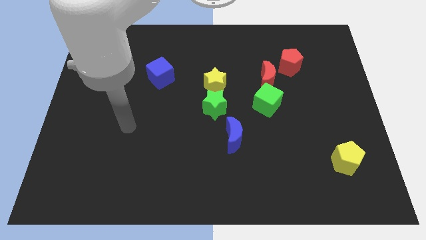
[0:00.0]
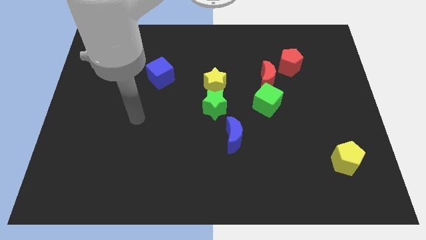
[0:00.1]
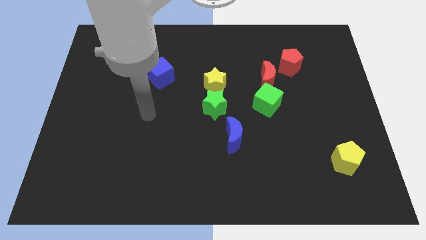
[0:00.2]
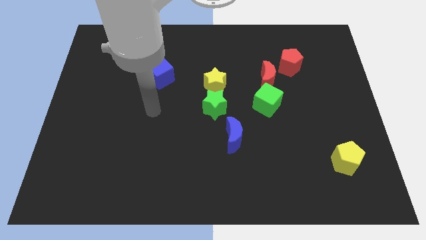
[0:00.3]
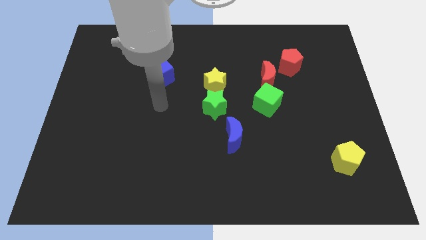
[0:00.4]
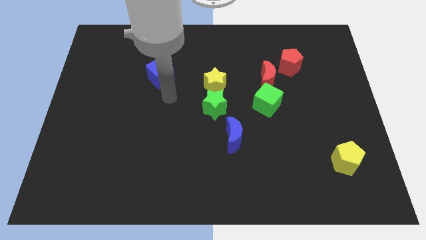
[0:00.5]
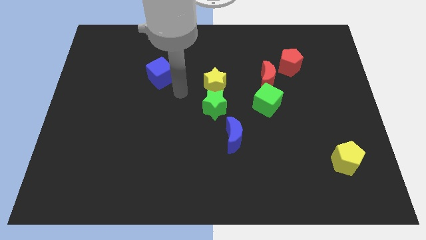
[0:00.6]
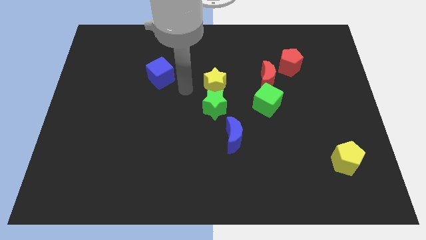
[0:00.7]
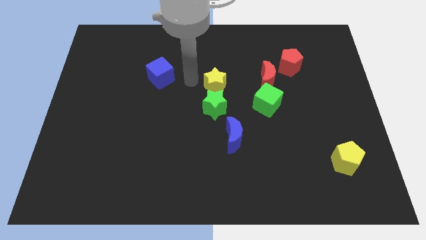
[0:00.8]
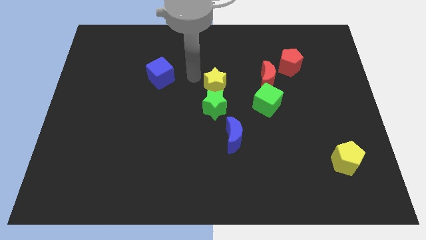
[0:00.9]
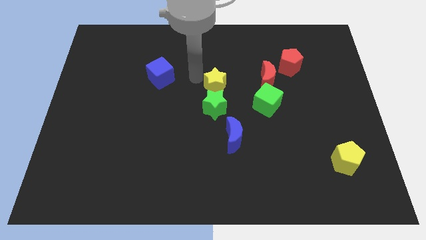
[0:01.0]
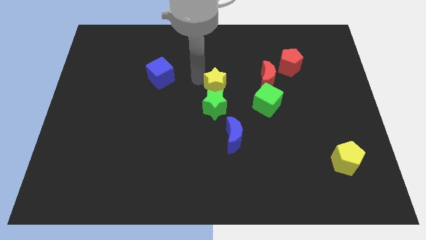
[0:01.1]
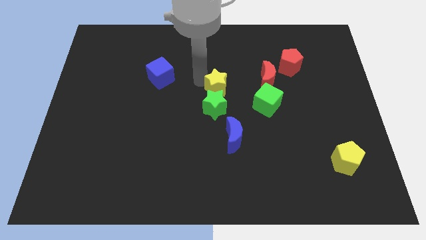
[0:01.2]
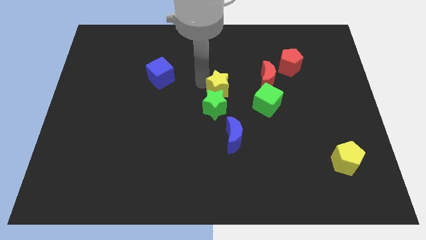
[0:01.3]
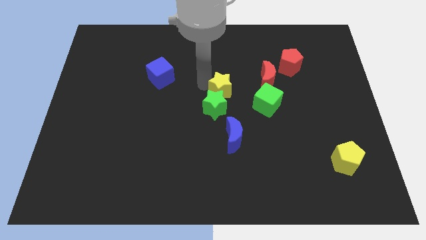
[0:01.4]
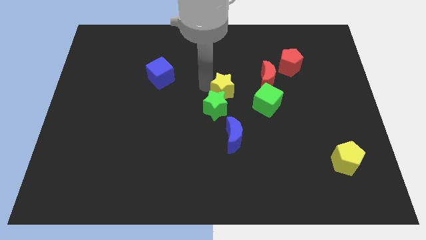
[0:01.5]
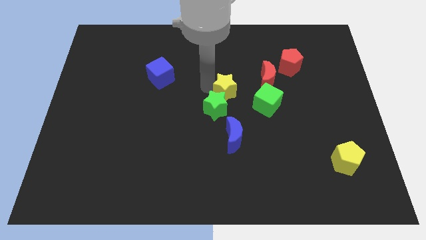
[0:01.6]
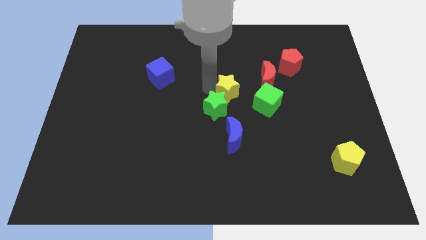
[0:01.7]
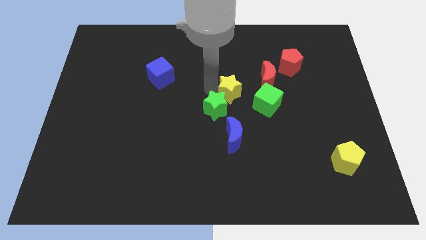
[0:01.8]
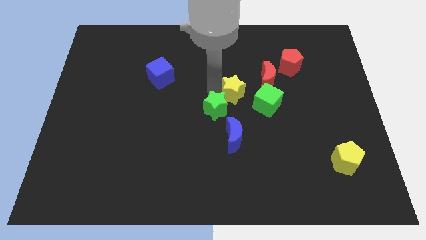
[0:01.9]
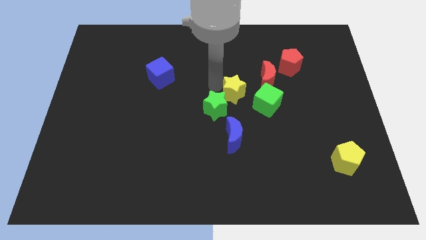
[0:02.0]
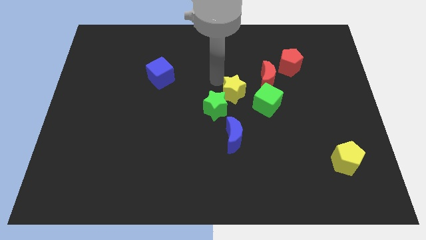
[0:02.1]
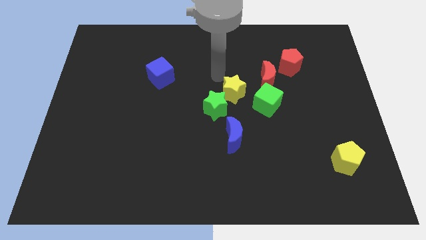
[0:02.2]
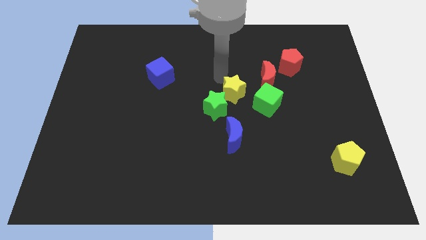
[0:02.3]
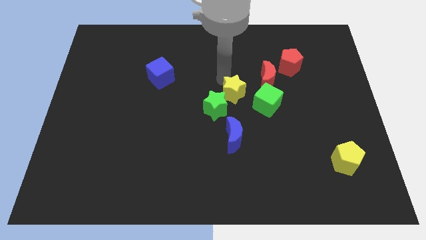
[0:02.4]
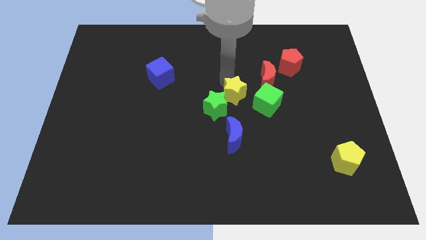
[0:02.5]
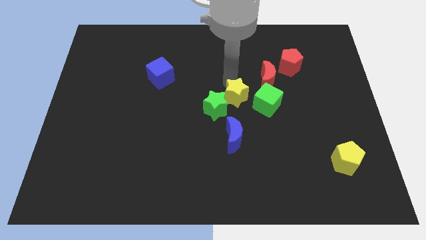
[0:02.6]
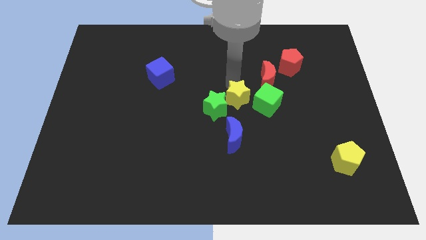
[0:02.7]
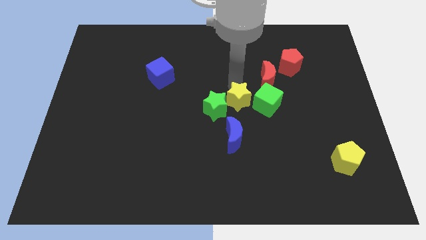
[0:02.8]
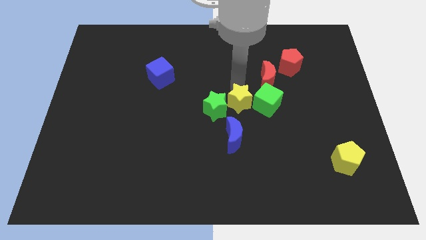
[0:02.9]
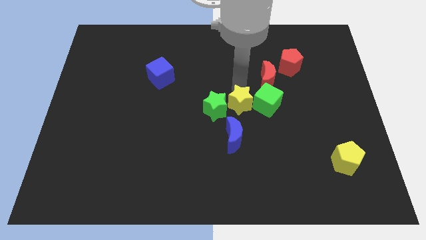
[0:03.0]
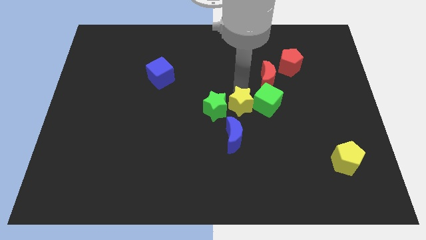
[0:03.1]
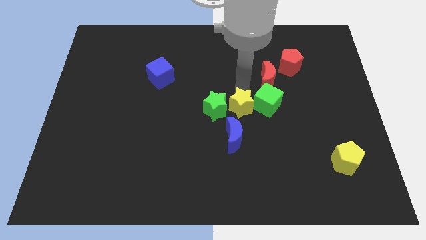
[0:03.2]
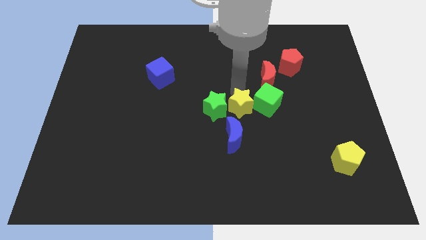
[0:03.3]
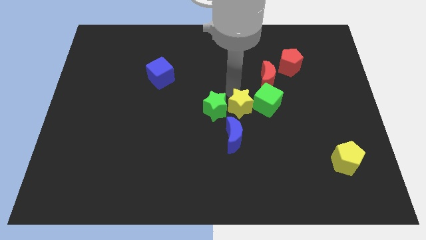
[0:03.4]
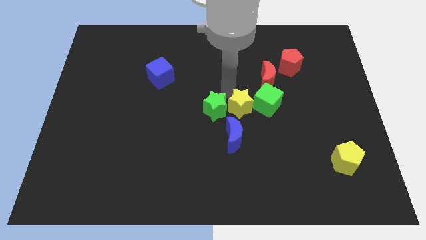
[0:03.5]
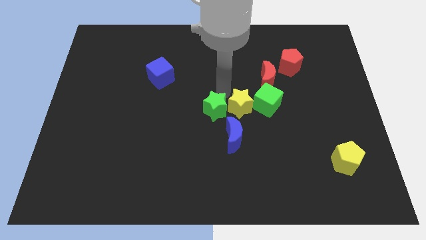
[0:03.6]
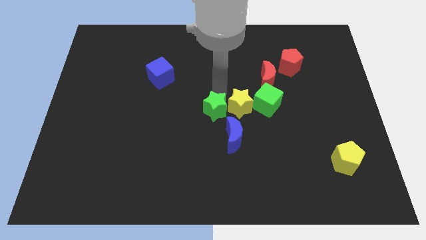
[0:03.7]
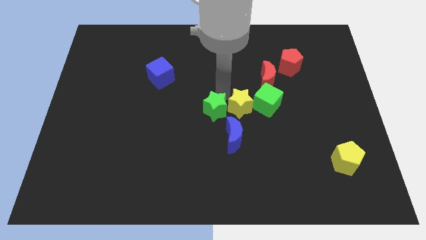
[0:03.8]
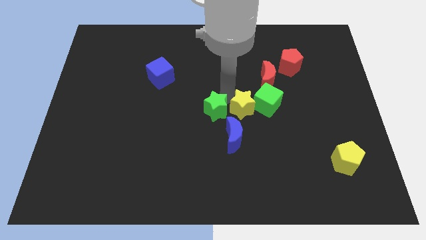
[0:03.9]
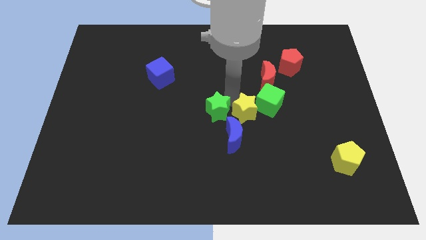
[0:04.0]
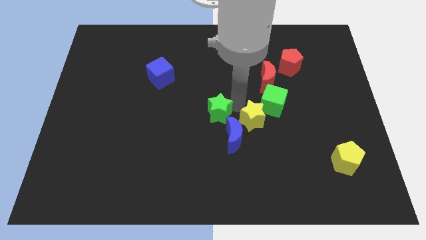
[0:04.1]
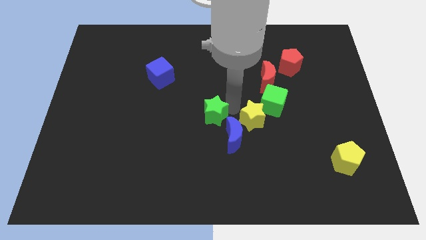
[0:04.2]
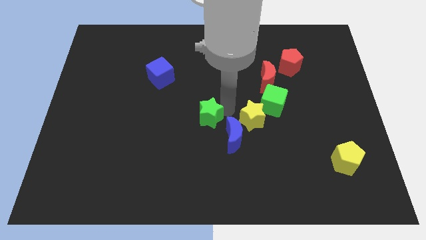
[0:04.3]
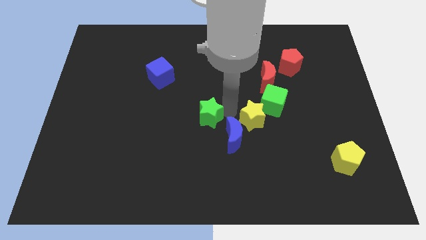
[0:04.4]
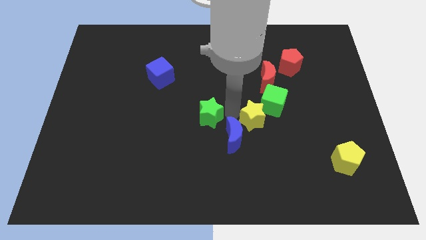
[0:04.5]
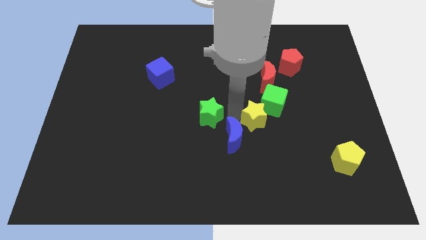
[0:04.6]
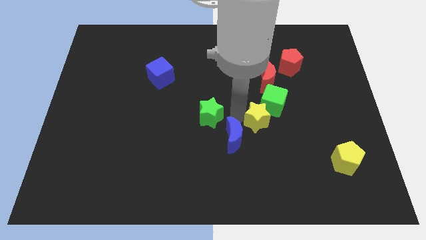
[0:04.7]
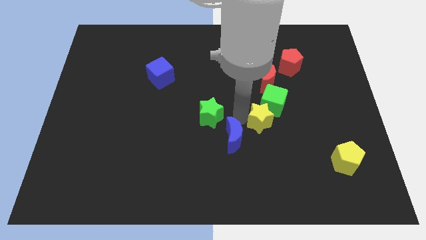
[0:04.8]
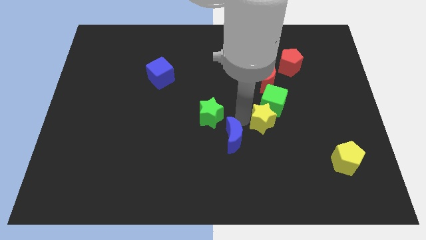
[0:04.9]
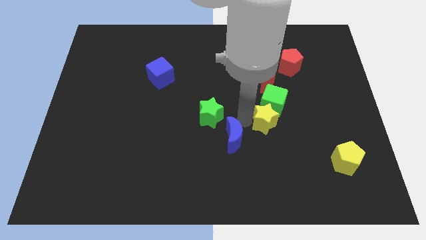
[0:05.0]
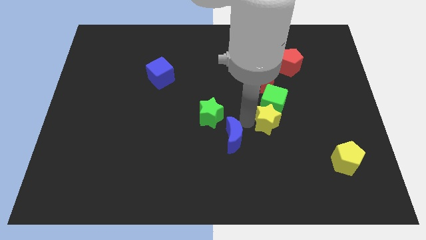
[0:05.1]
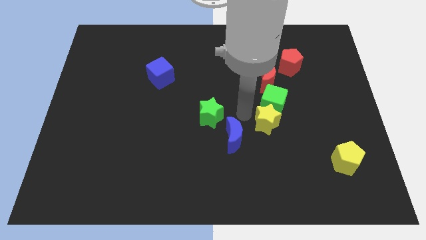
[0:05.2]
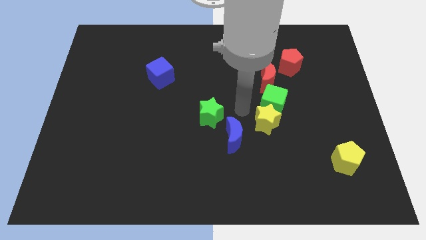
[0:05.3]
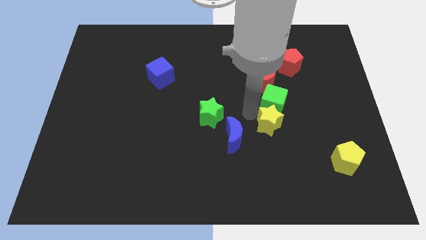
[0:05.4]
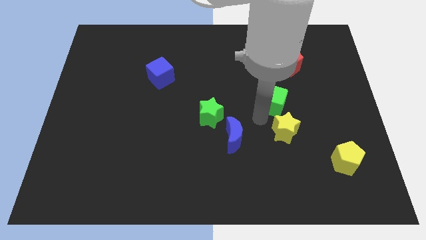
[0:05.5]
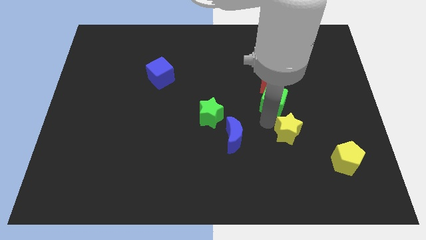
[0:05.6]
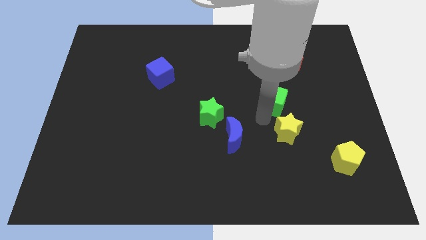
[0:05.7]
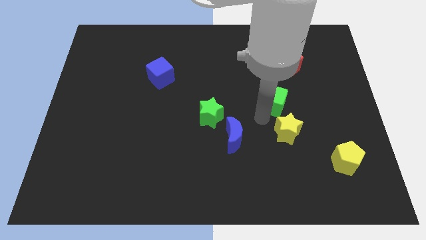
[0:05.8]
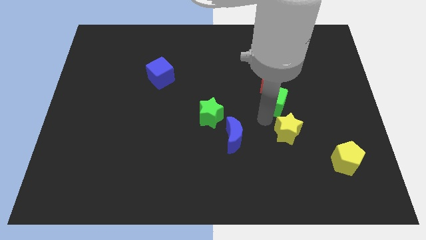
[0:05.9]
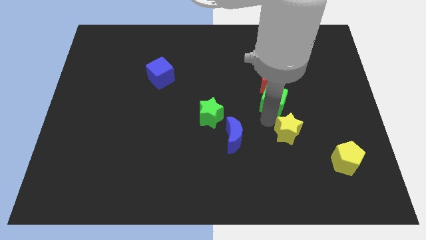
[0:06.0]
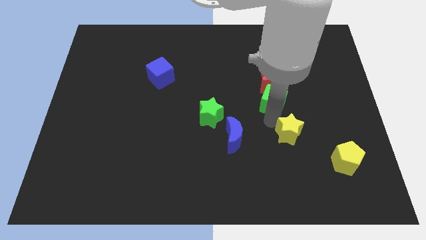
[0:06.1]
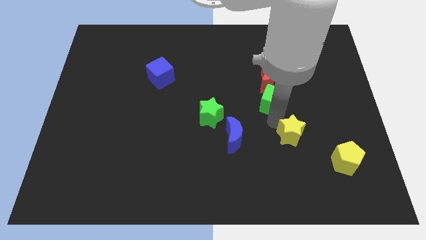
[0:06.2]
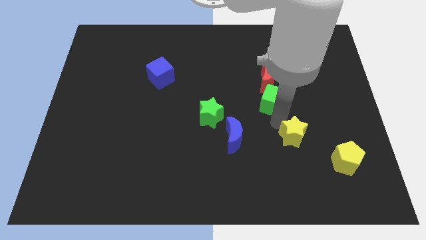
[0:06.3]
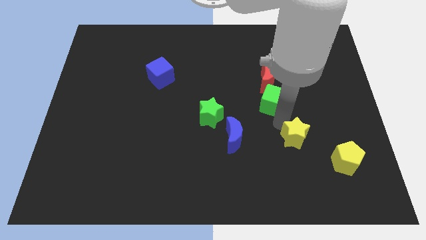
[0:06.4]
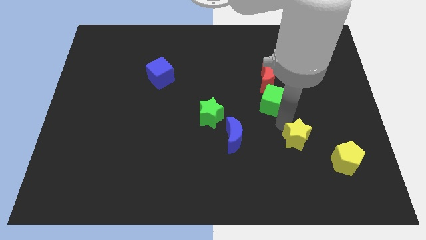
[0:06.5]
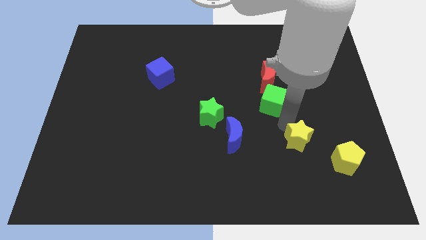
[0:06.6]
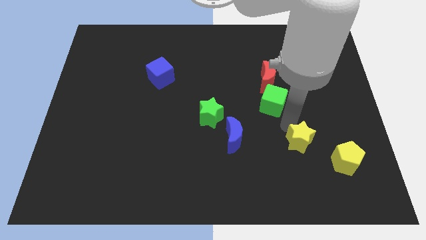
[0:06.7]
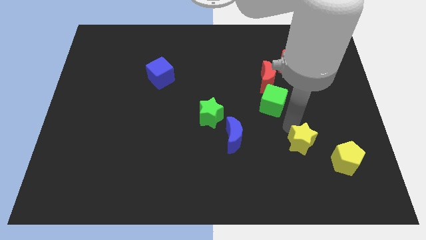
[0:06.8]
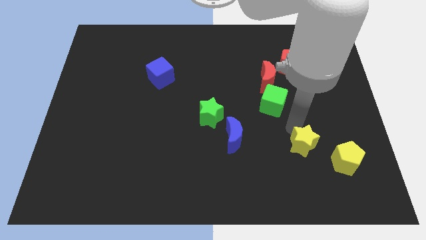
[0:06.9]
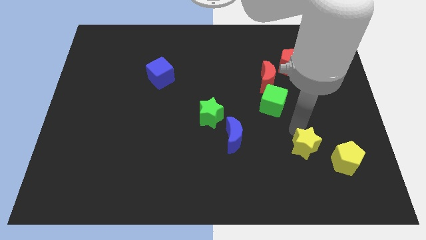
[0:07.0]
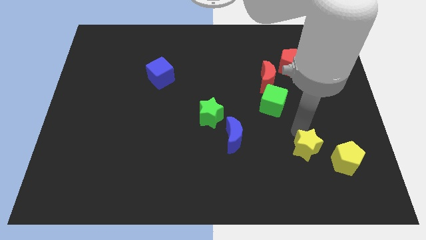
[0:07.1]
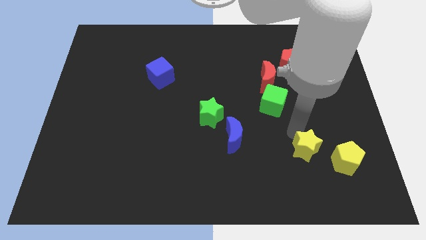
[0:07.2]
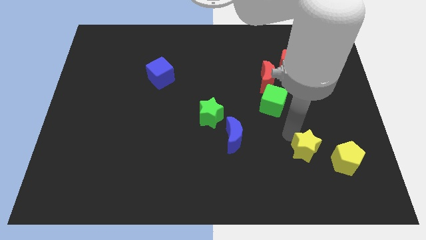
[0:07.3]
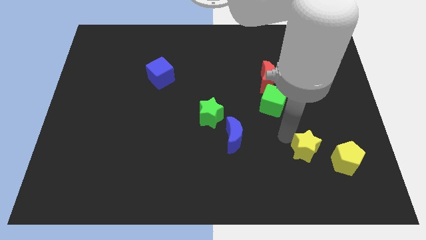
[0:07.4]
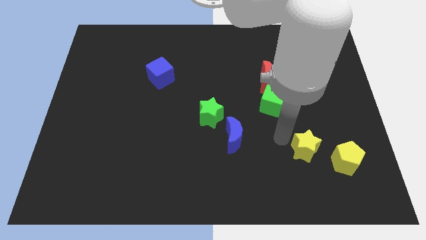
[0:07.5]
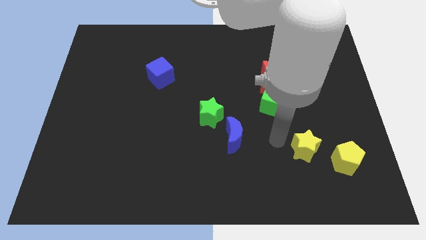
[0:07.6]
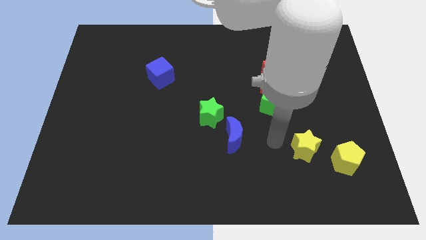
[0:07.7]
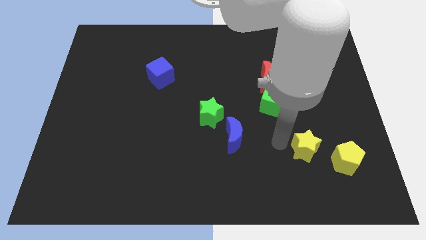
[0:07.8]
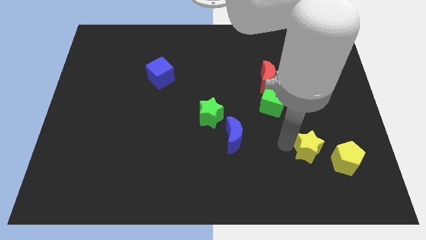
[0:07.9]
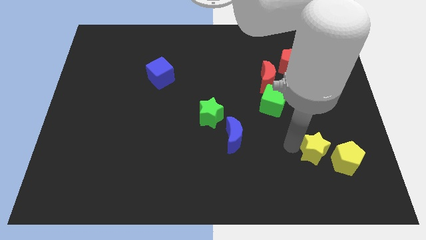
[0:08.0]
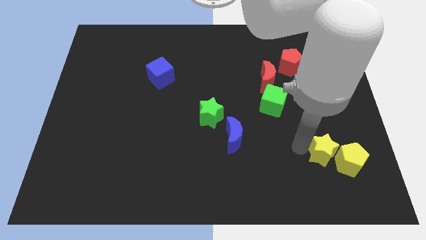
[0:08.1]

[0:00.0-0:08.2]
put the yellow star close to the yellow pentagon
